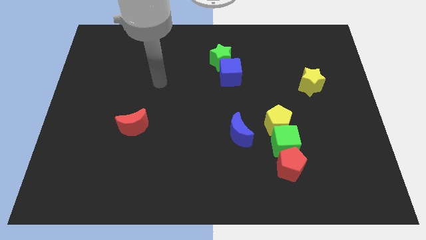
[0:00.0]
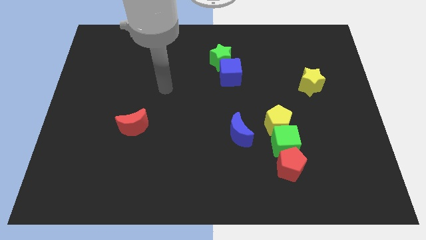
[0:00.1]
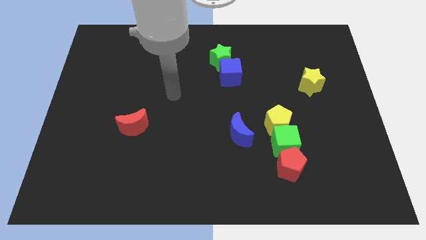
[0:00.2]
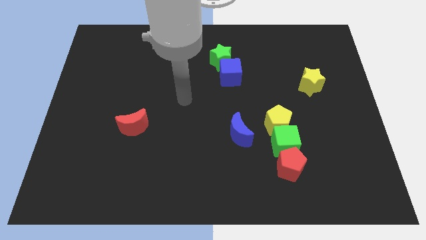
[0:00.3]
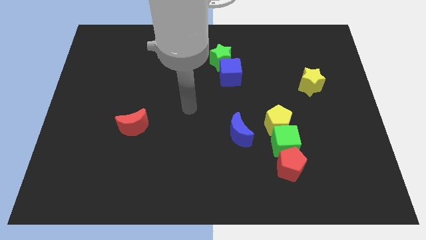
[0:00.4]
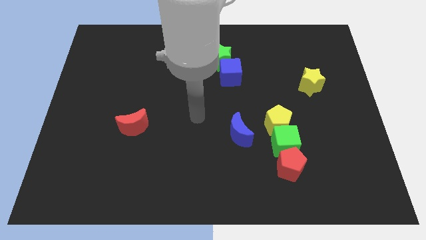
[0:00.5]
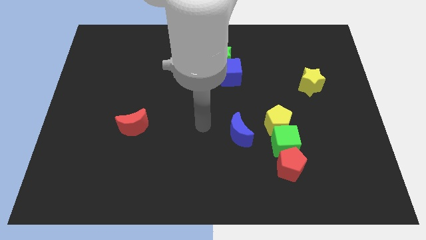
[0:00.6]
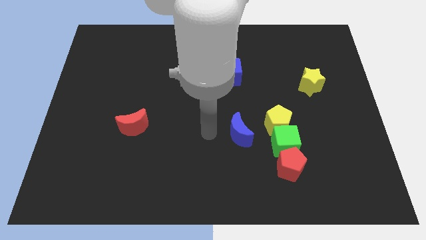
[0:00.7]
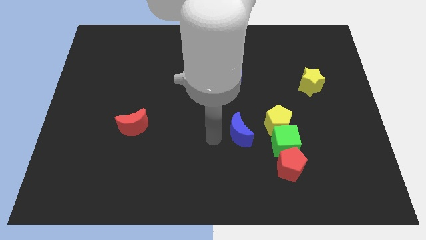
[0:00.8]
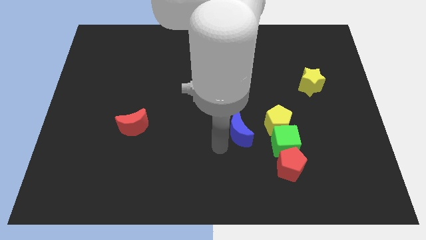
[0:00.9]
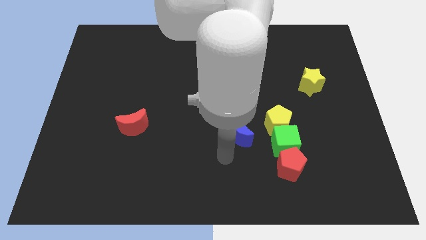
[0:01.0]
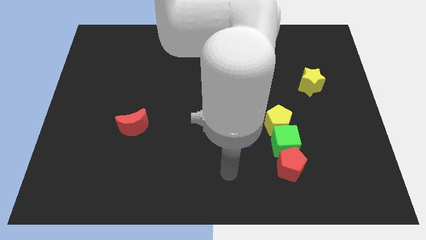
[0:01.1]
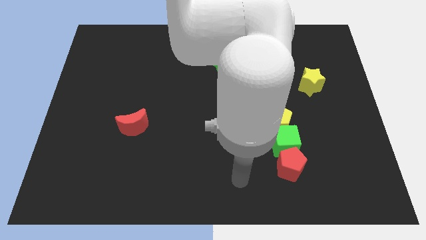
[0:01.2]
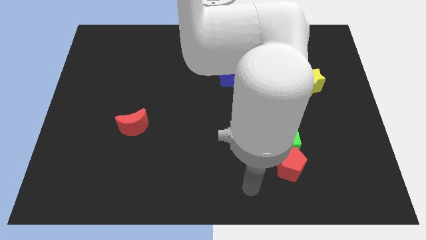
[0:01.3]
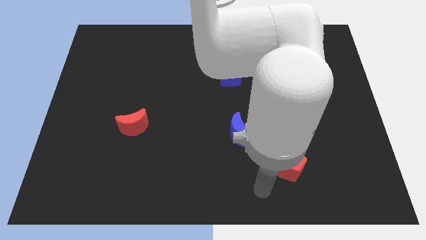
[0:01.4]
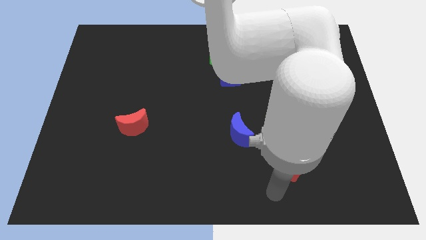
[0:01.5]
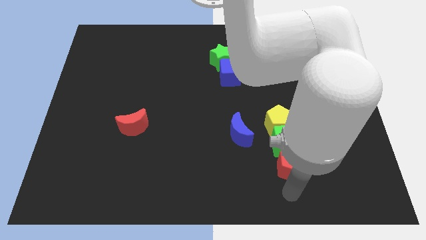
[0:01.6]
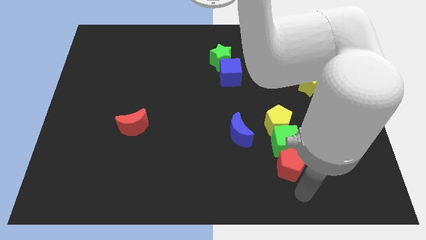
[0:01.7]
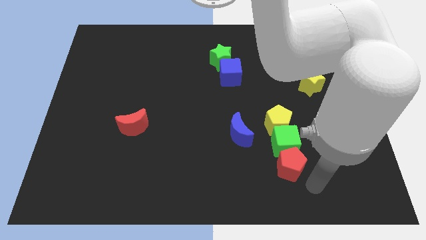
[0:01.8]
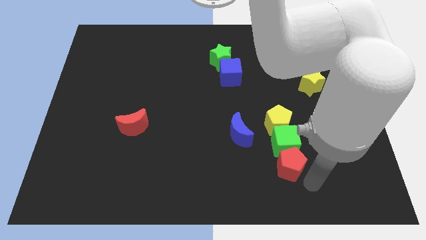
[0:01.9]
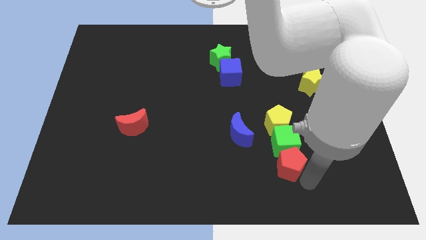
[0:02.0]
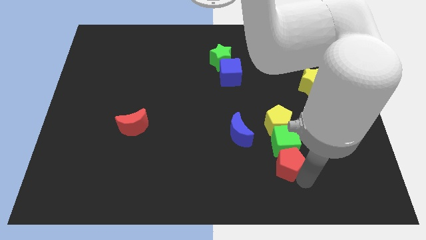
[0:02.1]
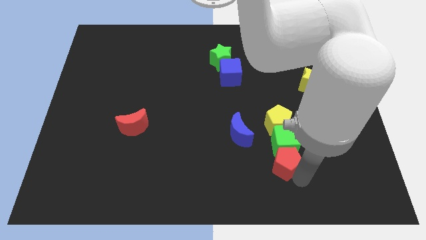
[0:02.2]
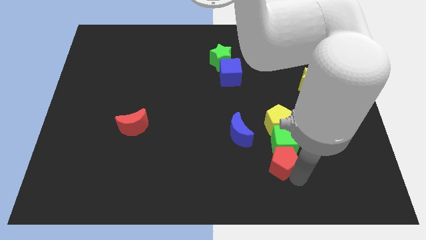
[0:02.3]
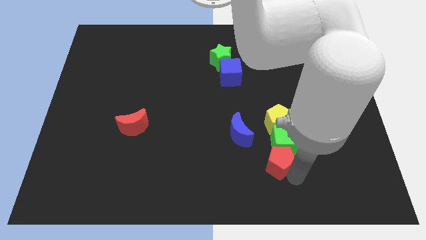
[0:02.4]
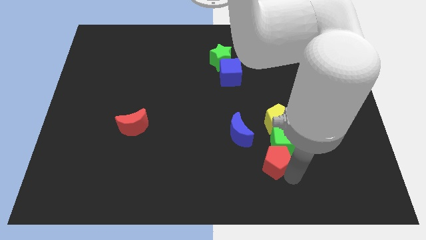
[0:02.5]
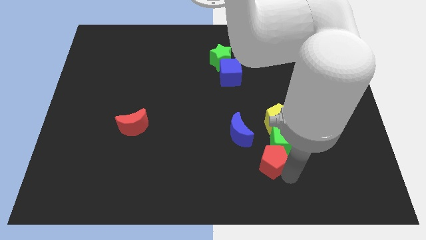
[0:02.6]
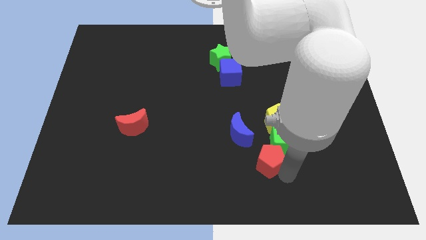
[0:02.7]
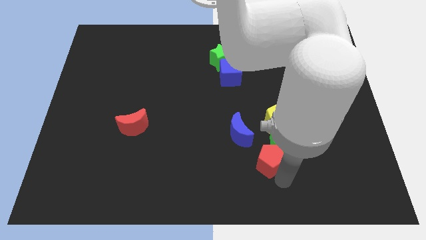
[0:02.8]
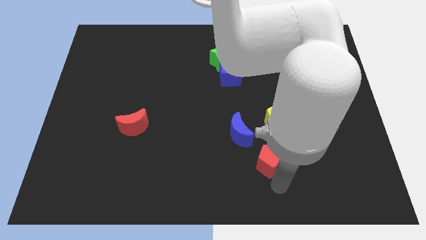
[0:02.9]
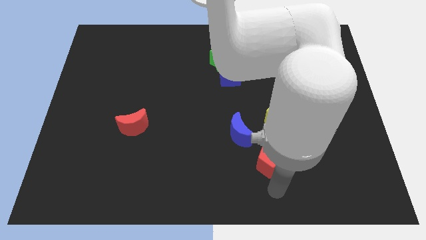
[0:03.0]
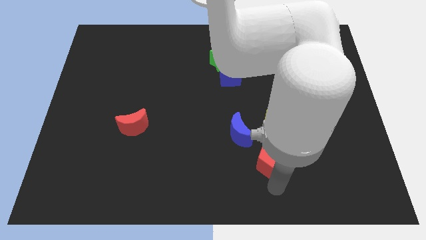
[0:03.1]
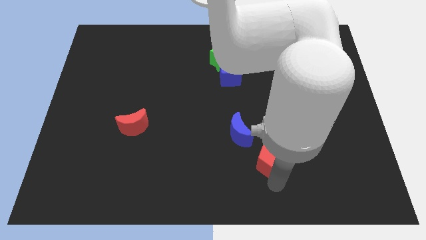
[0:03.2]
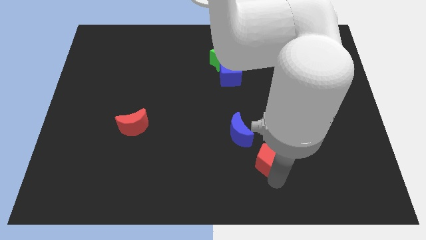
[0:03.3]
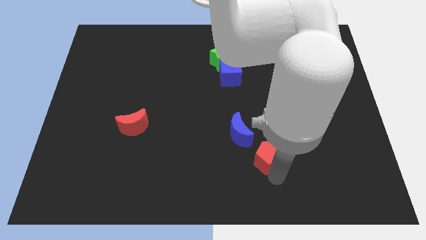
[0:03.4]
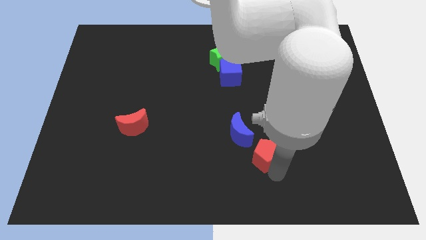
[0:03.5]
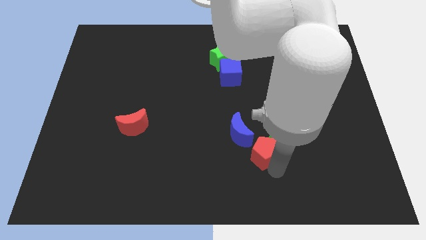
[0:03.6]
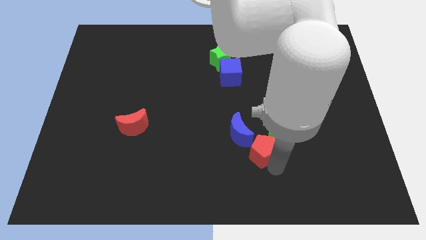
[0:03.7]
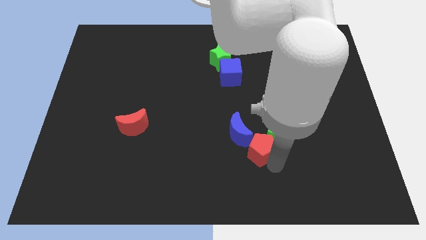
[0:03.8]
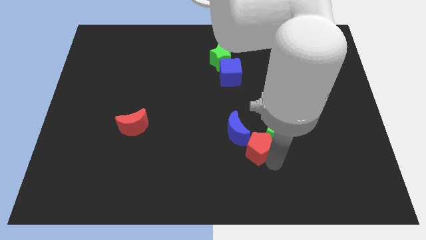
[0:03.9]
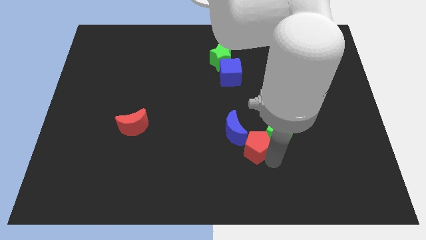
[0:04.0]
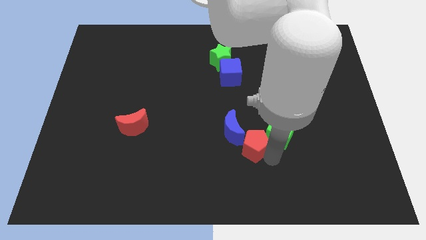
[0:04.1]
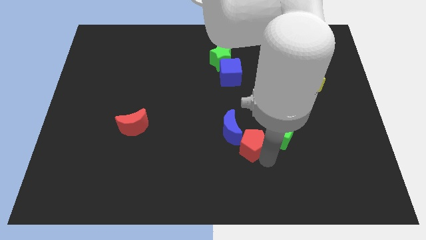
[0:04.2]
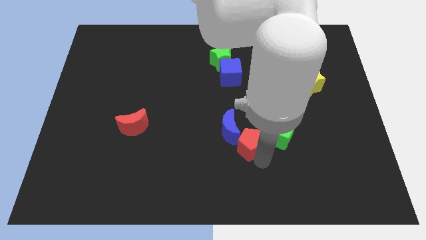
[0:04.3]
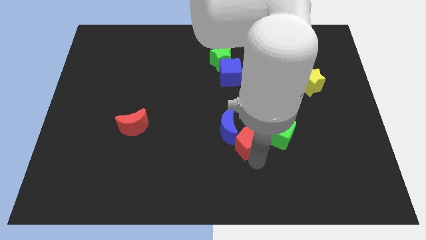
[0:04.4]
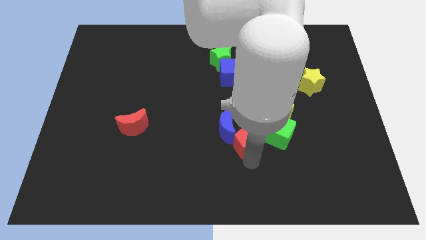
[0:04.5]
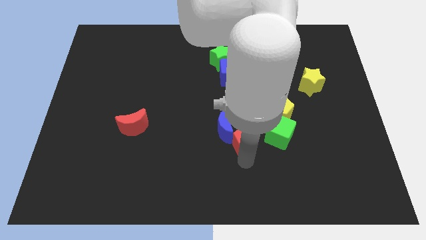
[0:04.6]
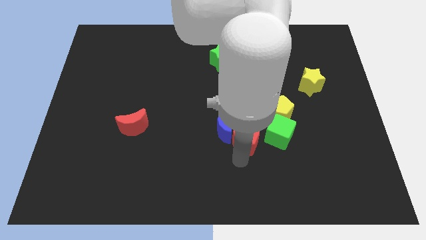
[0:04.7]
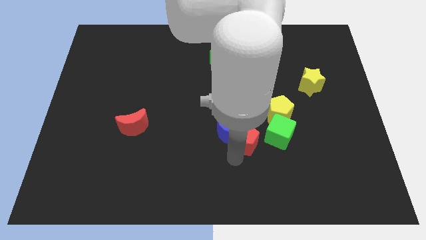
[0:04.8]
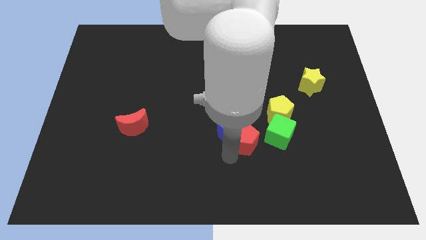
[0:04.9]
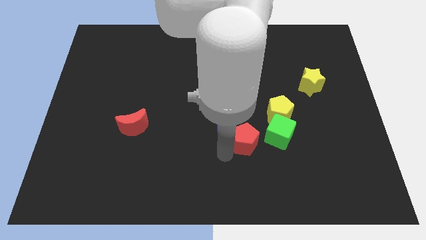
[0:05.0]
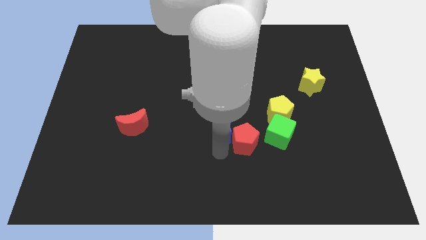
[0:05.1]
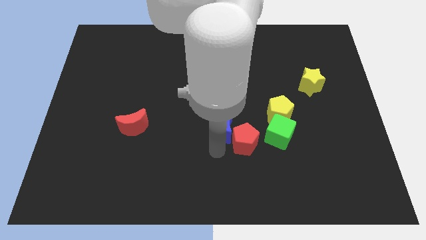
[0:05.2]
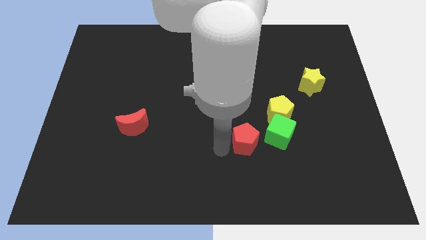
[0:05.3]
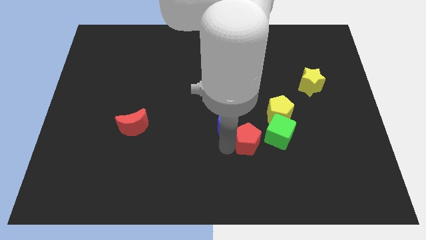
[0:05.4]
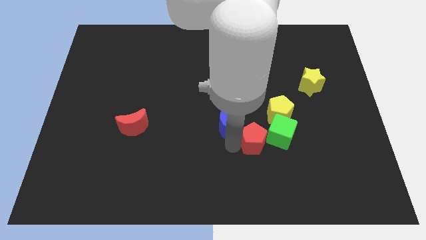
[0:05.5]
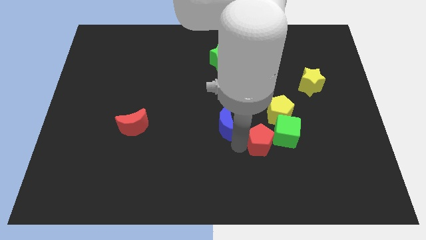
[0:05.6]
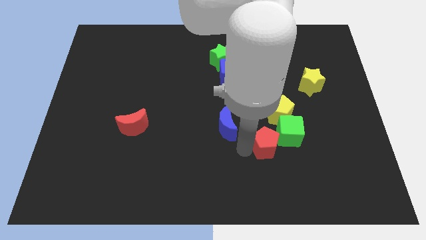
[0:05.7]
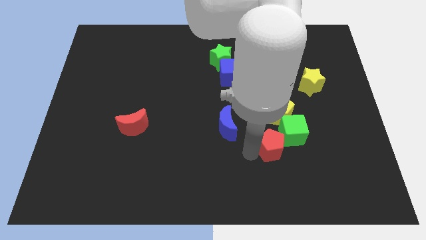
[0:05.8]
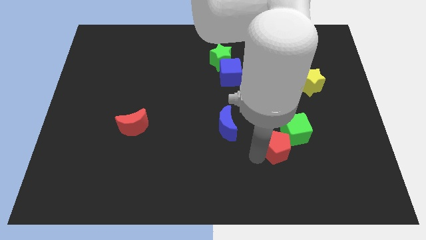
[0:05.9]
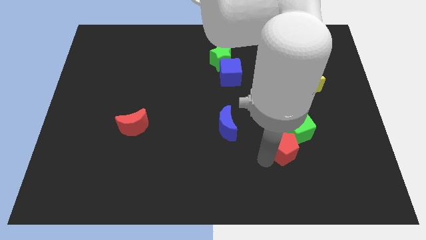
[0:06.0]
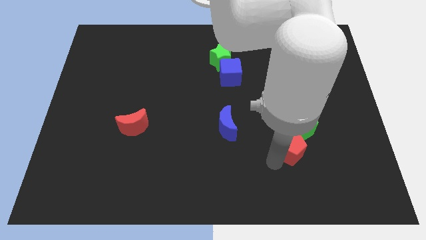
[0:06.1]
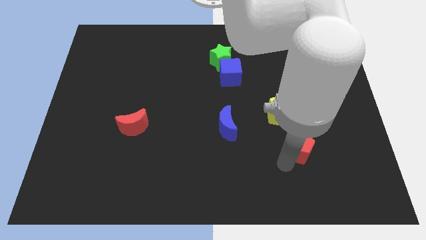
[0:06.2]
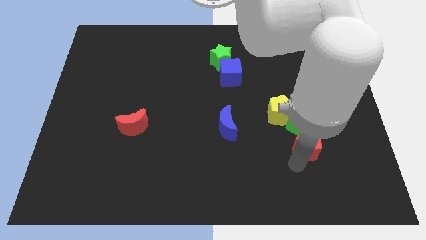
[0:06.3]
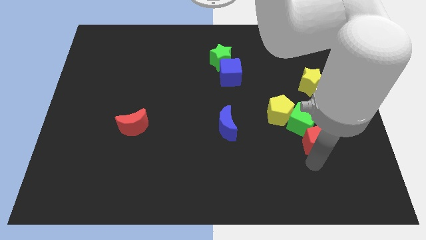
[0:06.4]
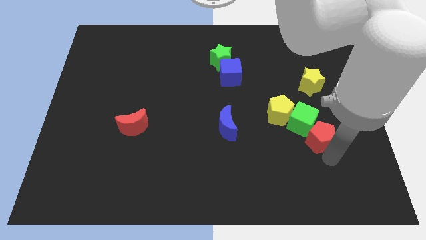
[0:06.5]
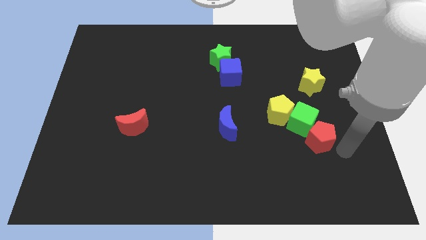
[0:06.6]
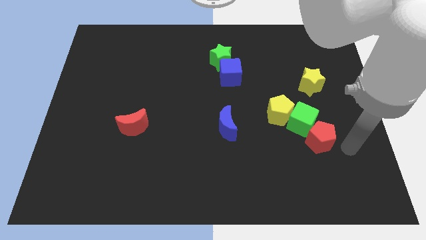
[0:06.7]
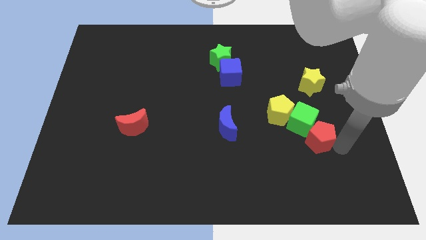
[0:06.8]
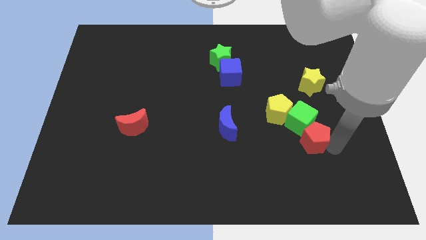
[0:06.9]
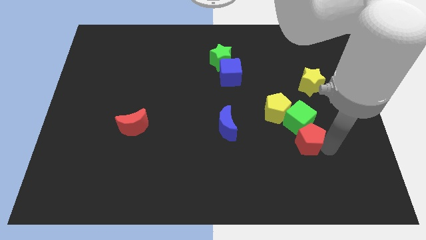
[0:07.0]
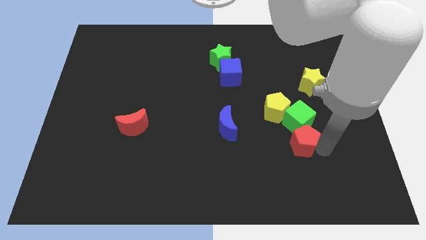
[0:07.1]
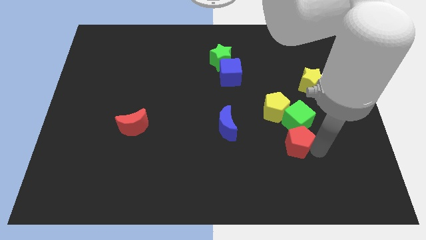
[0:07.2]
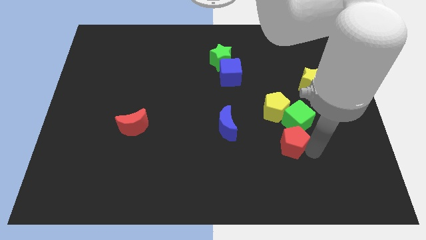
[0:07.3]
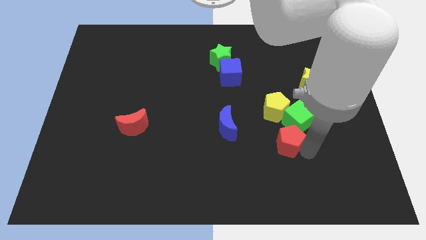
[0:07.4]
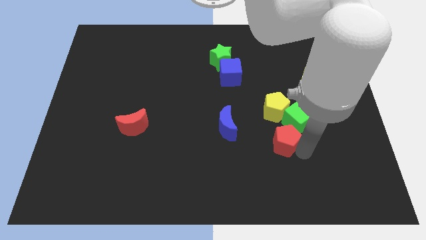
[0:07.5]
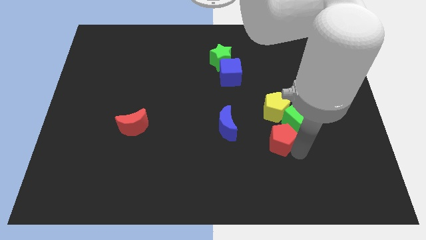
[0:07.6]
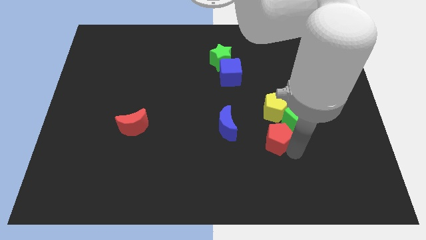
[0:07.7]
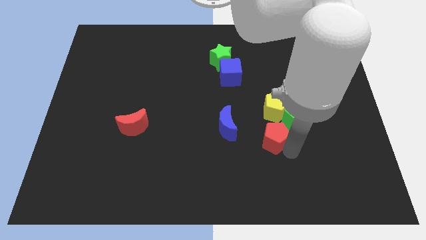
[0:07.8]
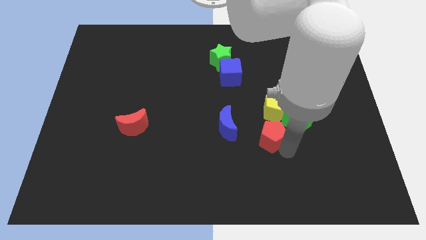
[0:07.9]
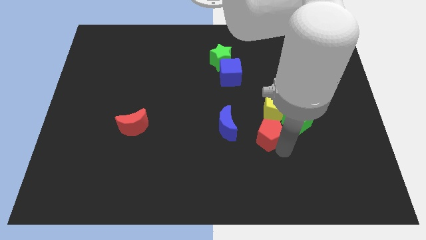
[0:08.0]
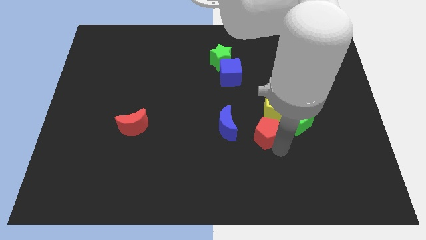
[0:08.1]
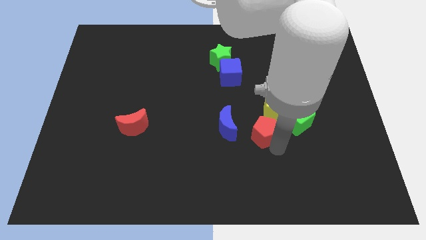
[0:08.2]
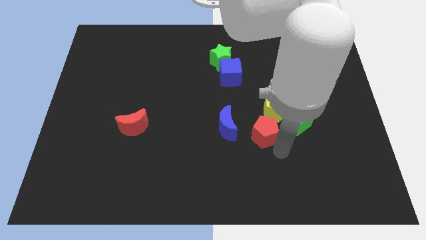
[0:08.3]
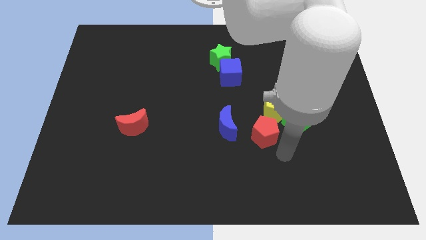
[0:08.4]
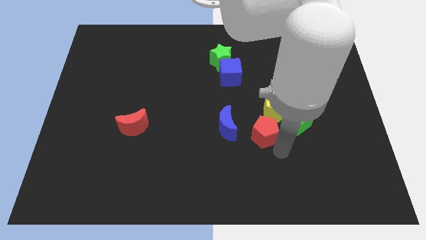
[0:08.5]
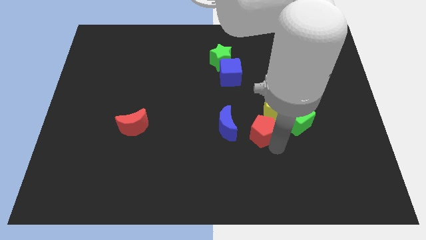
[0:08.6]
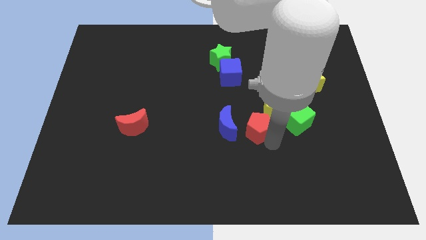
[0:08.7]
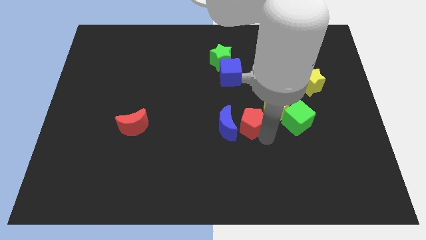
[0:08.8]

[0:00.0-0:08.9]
slide the red pentagon to the center of the board
